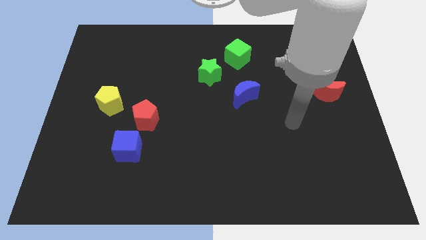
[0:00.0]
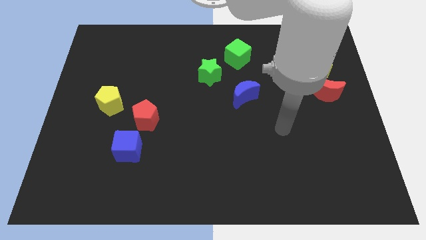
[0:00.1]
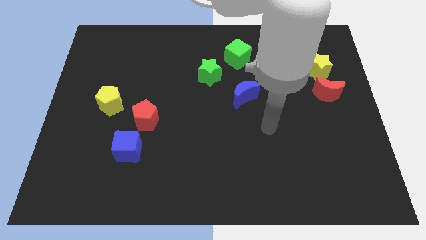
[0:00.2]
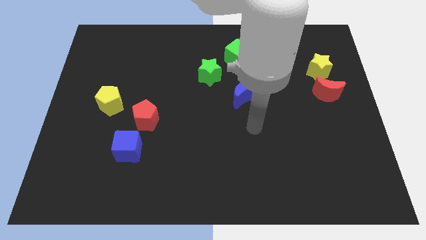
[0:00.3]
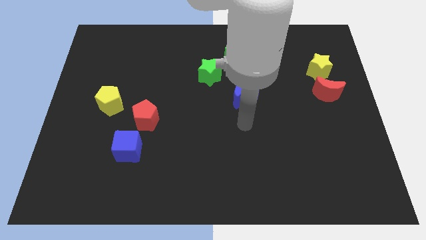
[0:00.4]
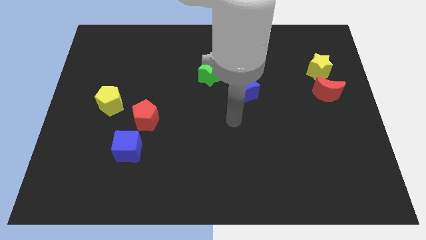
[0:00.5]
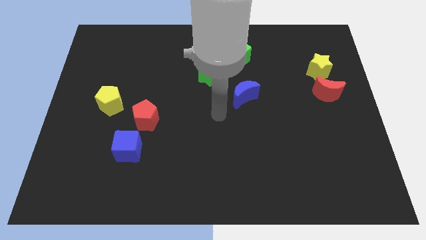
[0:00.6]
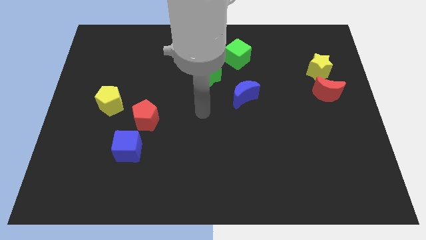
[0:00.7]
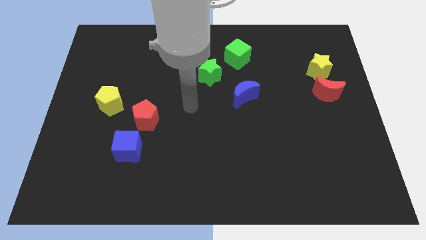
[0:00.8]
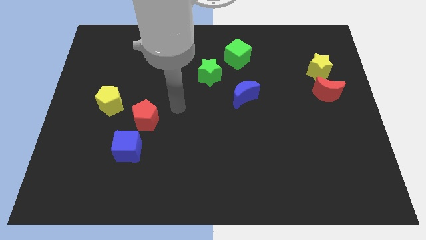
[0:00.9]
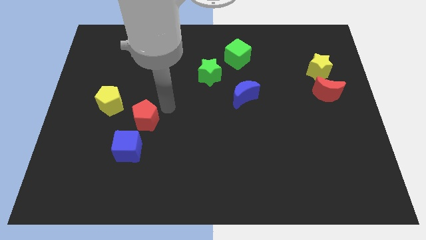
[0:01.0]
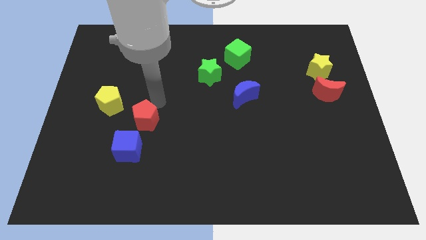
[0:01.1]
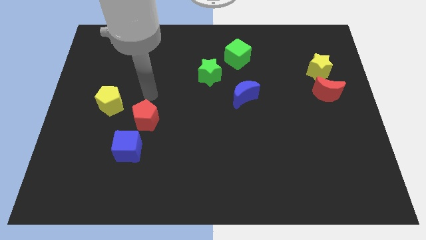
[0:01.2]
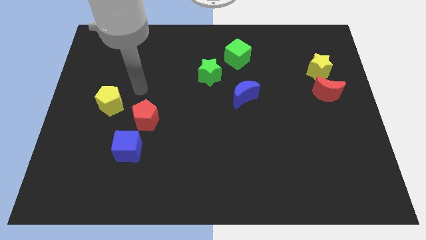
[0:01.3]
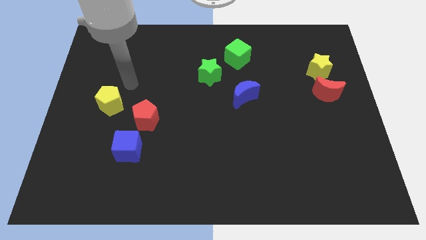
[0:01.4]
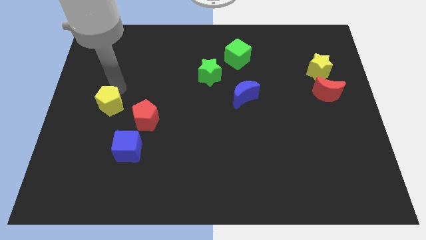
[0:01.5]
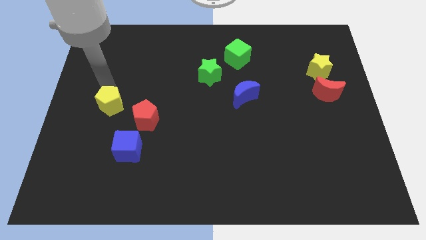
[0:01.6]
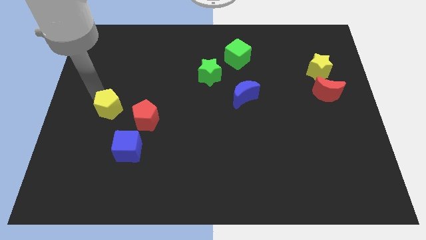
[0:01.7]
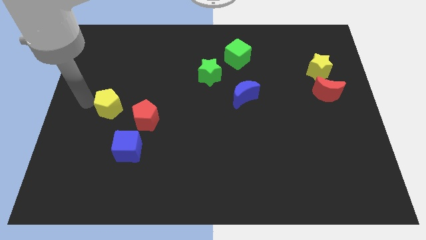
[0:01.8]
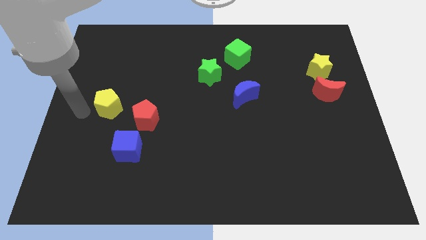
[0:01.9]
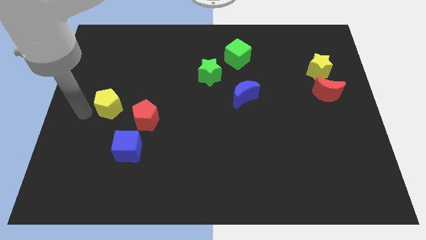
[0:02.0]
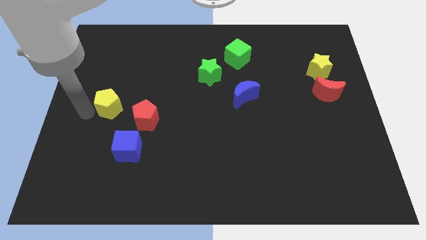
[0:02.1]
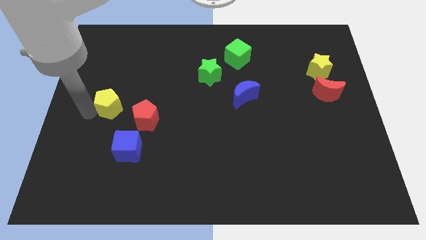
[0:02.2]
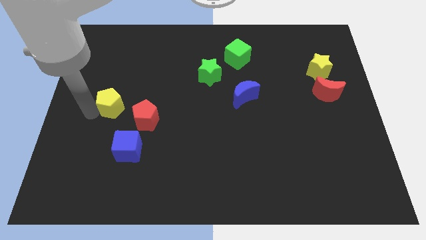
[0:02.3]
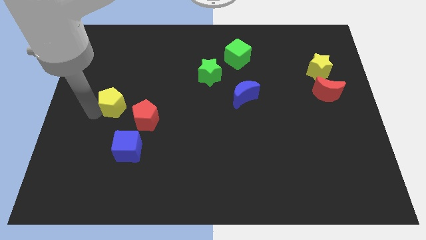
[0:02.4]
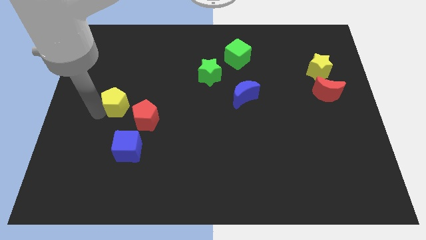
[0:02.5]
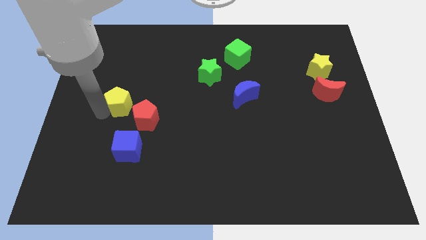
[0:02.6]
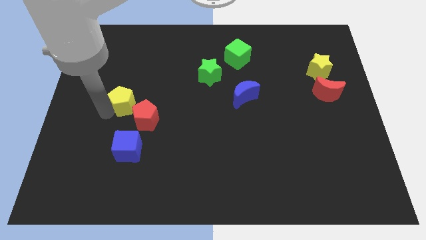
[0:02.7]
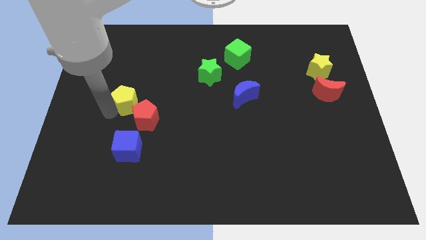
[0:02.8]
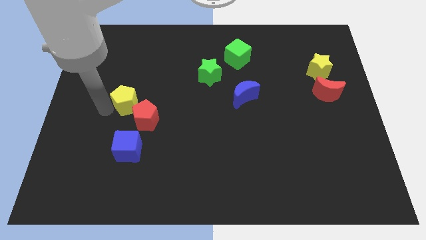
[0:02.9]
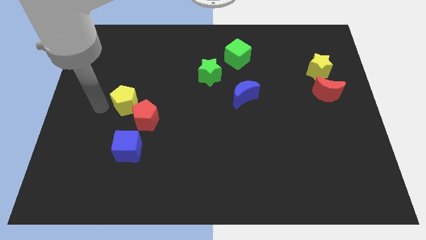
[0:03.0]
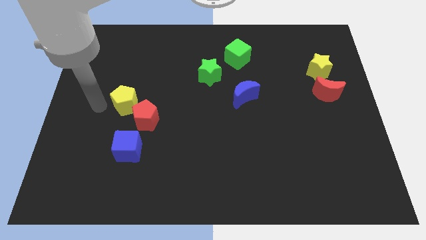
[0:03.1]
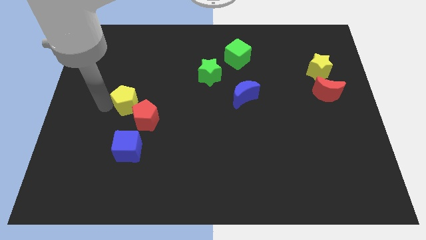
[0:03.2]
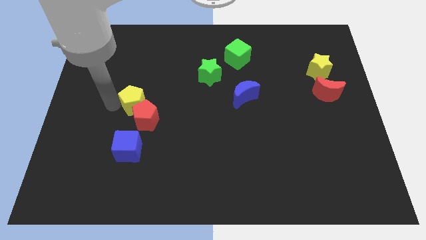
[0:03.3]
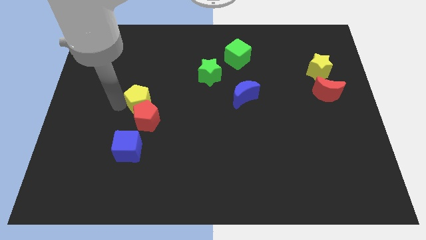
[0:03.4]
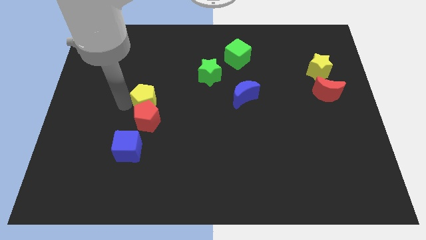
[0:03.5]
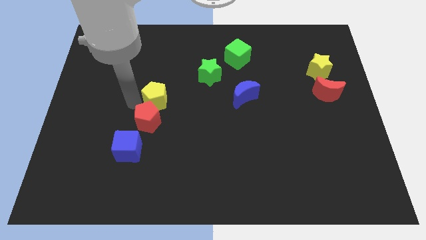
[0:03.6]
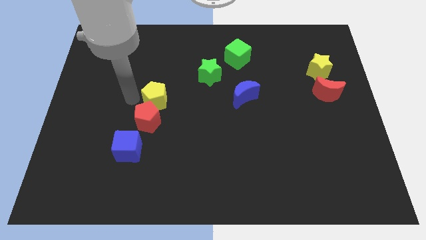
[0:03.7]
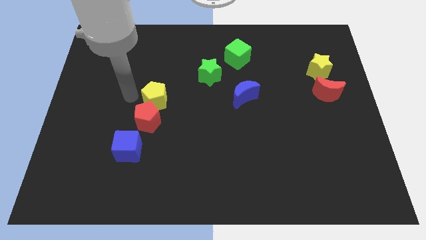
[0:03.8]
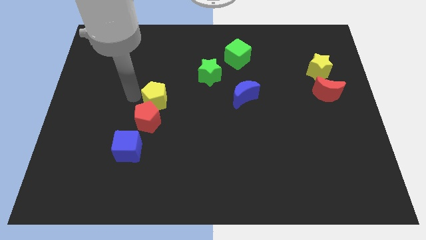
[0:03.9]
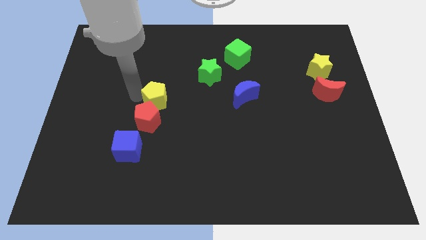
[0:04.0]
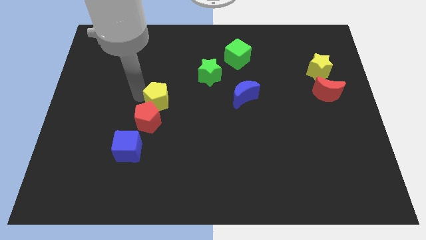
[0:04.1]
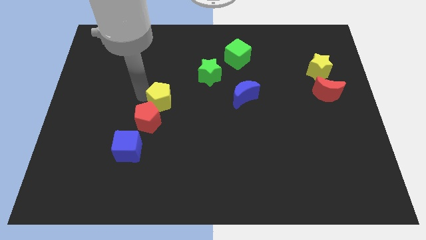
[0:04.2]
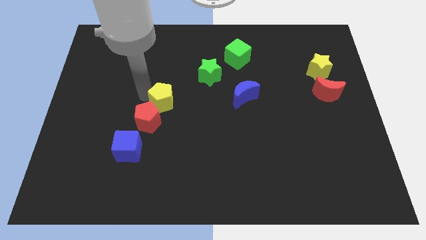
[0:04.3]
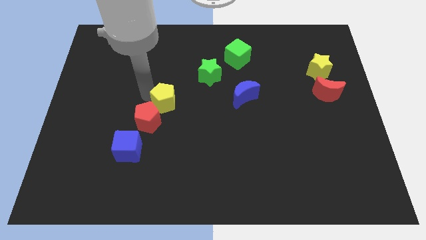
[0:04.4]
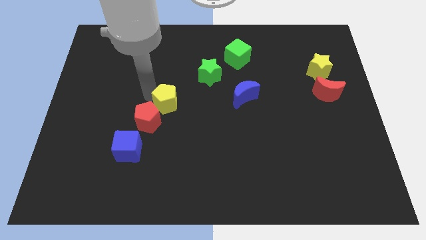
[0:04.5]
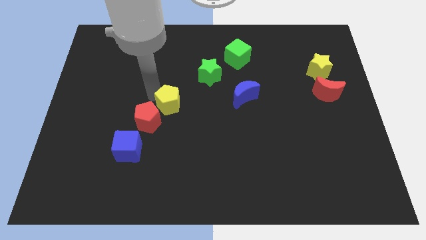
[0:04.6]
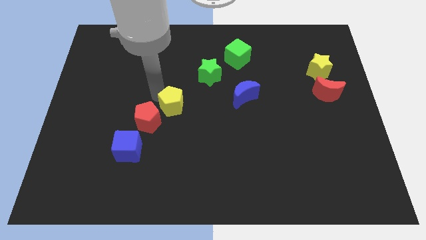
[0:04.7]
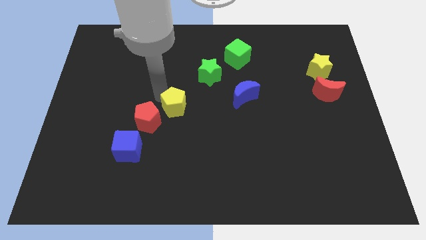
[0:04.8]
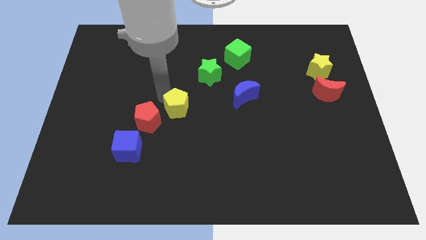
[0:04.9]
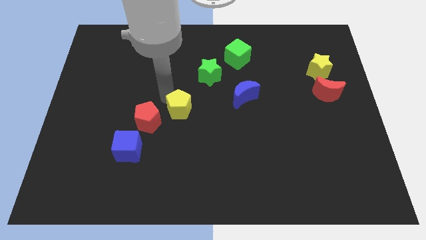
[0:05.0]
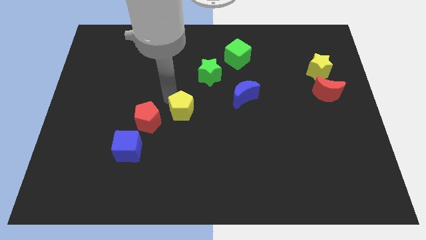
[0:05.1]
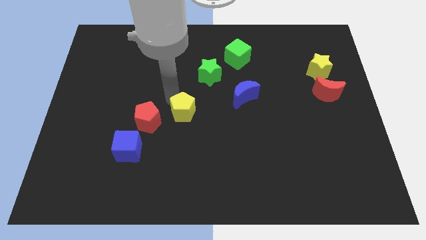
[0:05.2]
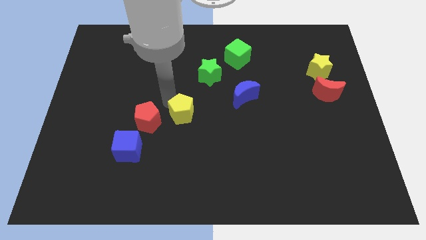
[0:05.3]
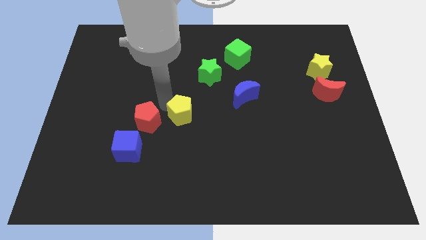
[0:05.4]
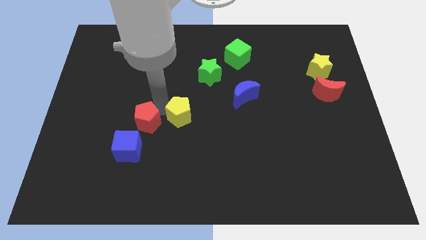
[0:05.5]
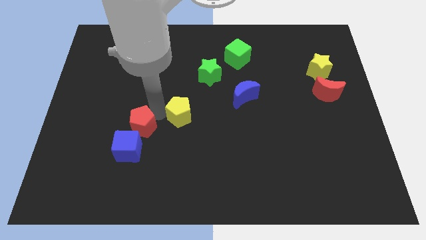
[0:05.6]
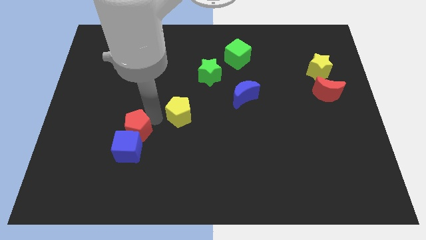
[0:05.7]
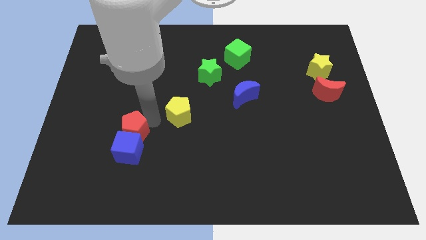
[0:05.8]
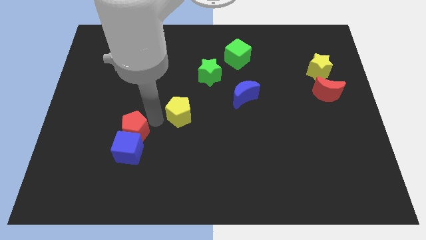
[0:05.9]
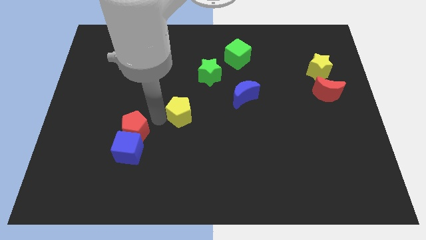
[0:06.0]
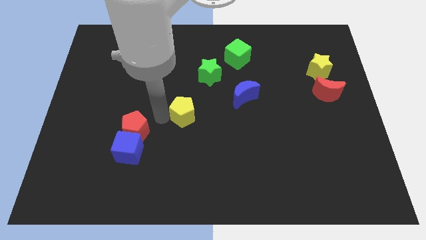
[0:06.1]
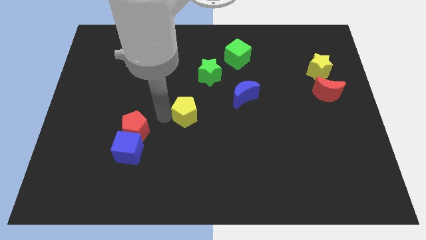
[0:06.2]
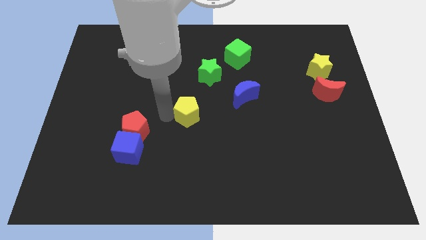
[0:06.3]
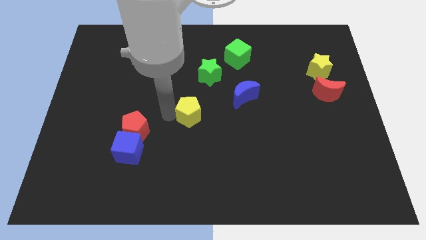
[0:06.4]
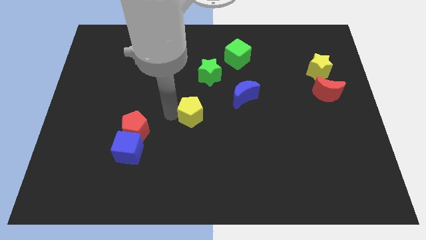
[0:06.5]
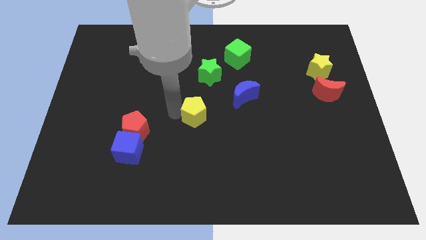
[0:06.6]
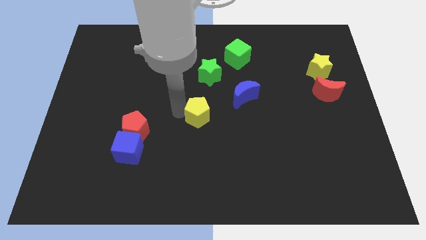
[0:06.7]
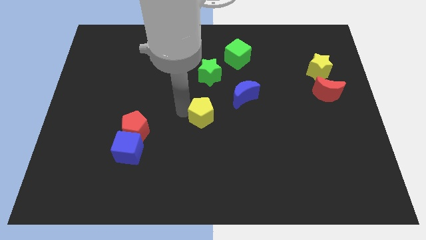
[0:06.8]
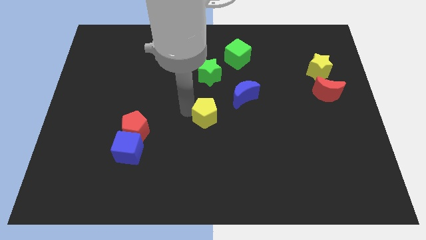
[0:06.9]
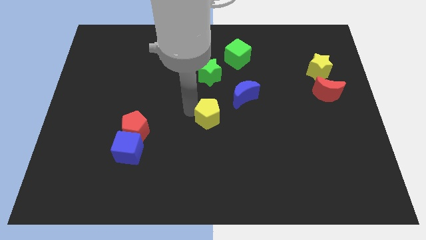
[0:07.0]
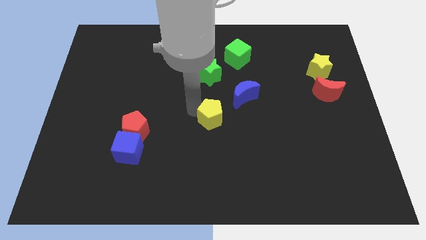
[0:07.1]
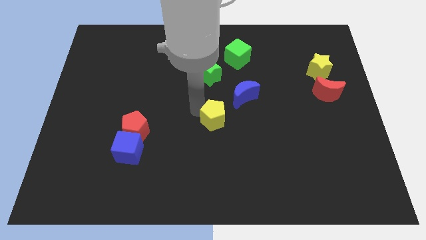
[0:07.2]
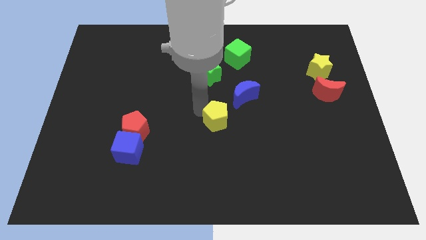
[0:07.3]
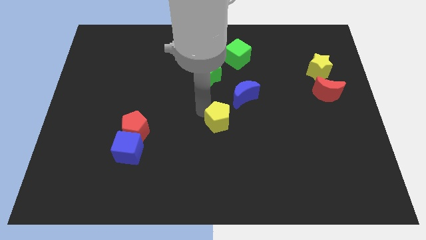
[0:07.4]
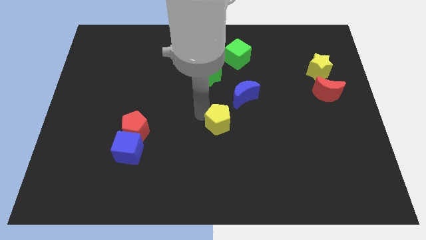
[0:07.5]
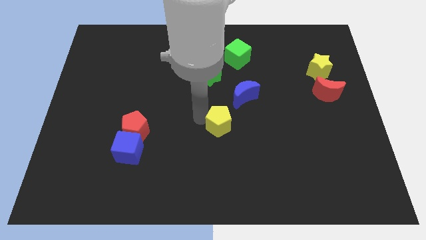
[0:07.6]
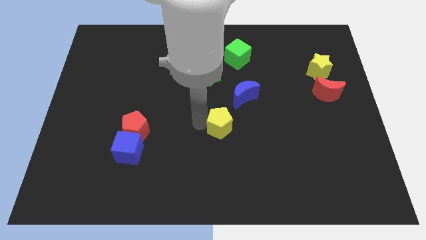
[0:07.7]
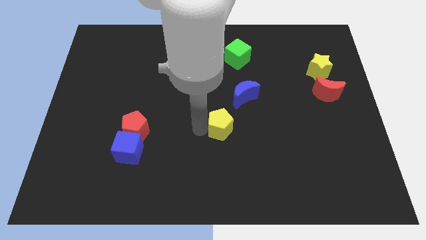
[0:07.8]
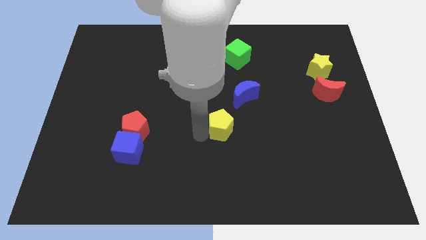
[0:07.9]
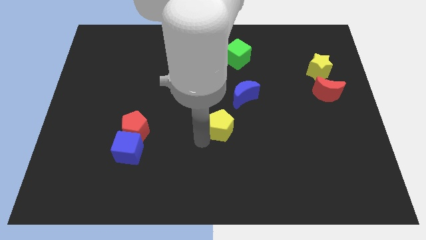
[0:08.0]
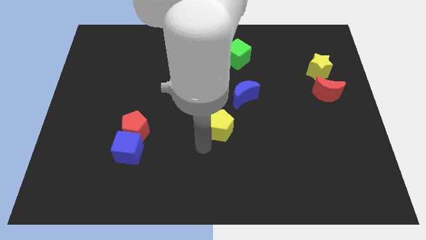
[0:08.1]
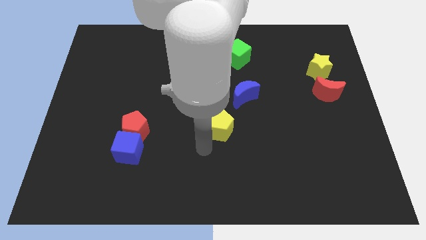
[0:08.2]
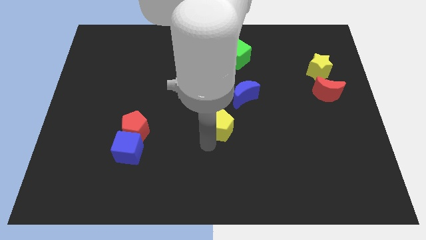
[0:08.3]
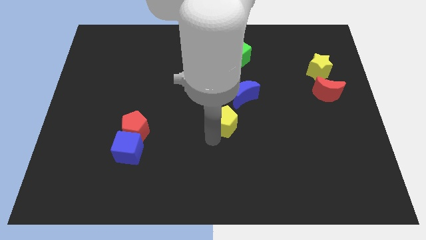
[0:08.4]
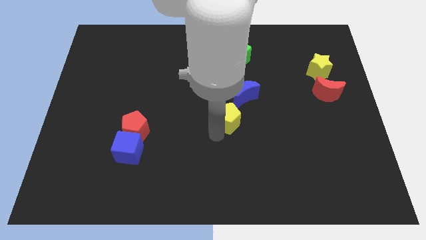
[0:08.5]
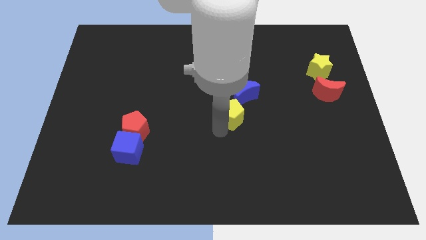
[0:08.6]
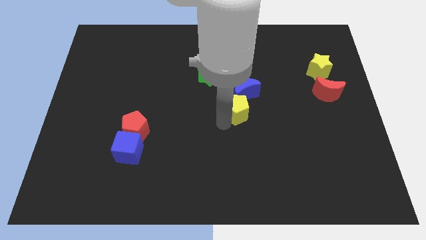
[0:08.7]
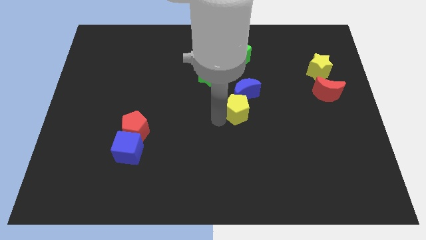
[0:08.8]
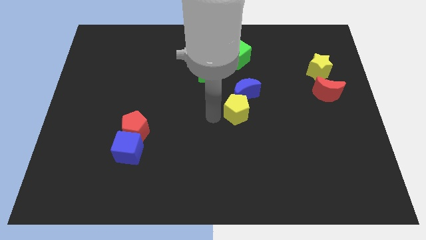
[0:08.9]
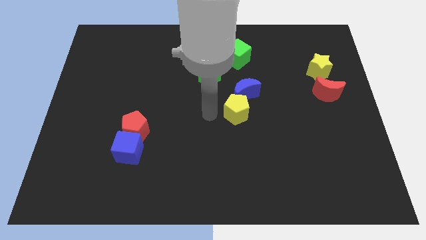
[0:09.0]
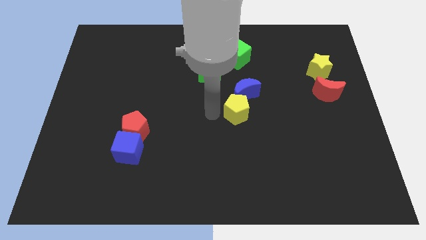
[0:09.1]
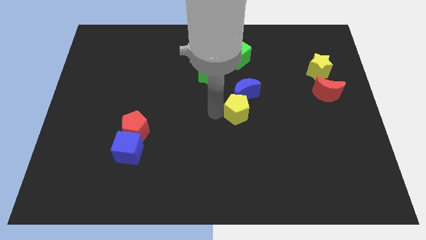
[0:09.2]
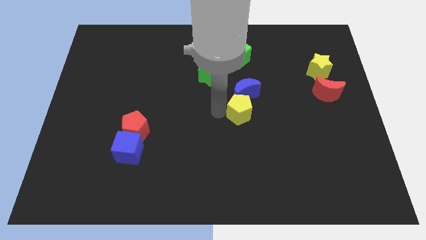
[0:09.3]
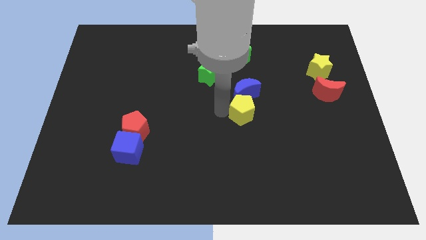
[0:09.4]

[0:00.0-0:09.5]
move the yellow pentagon to the bottom right side of the blue moon
